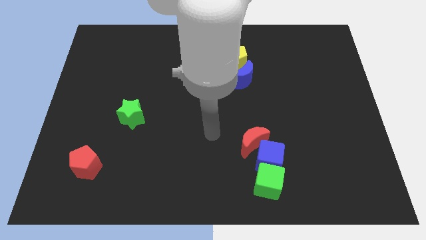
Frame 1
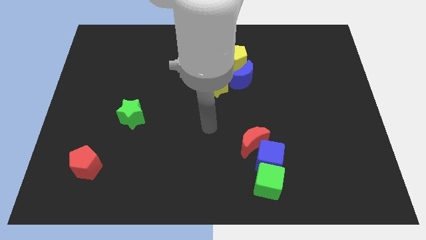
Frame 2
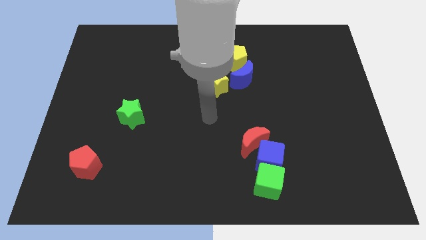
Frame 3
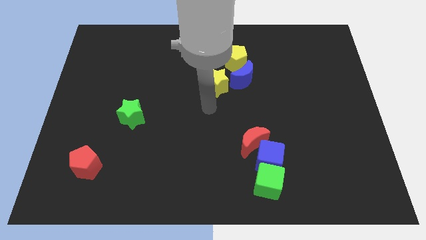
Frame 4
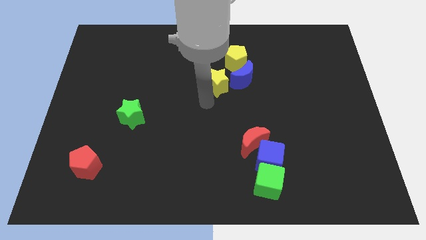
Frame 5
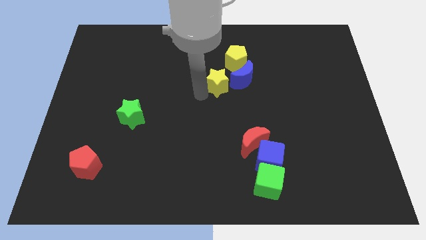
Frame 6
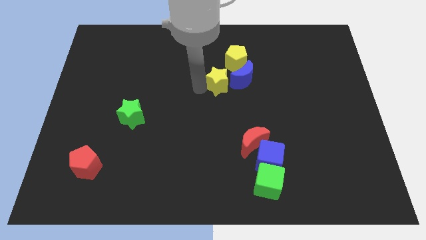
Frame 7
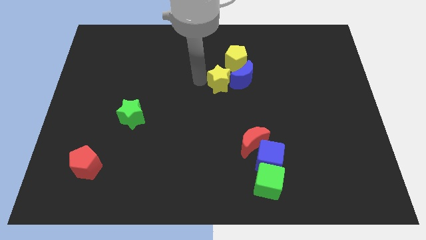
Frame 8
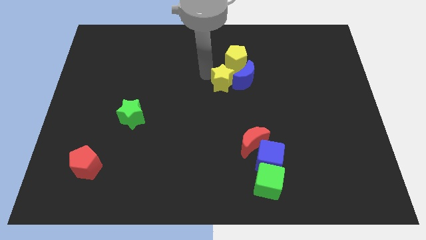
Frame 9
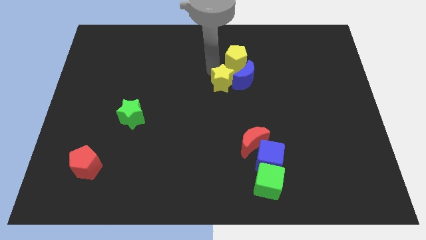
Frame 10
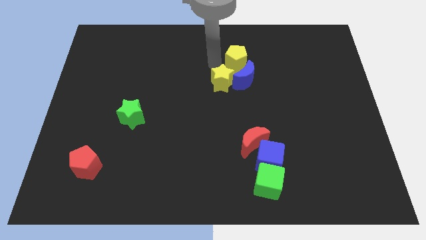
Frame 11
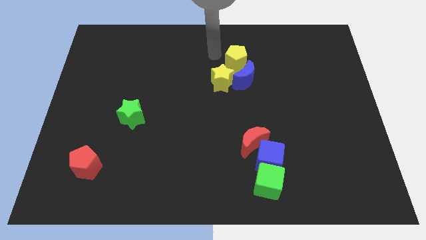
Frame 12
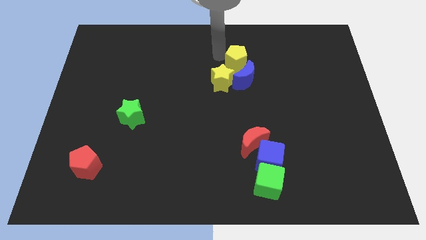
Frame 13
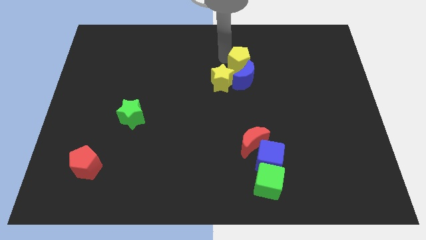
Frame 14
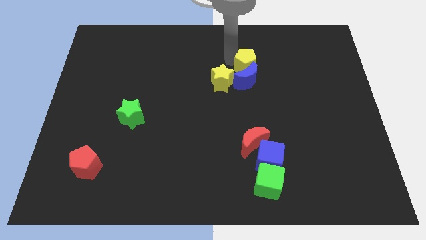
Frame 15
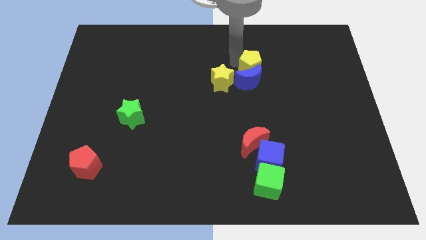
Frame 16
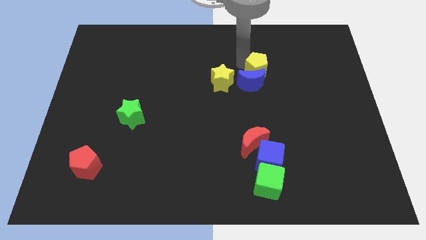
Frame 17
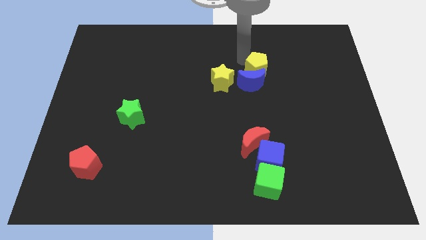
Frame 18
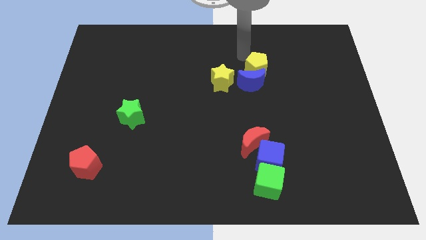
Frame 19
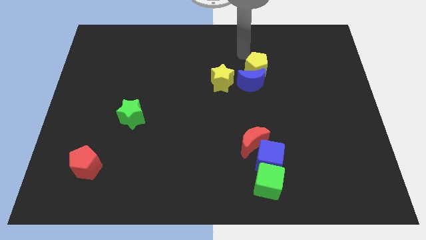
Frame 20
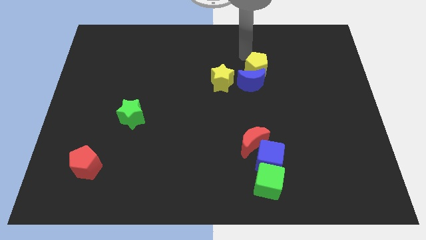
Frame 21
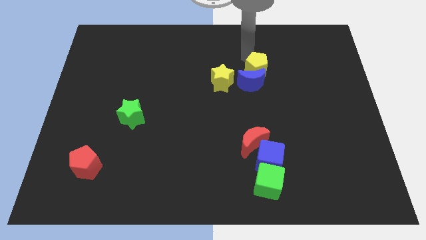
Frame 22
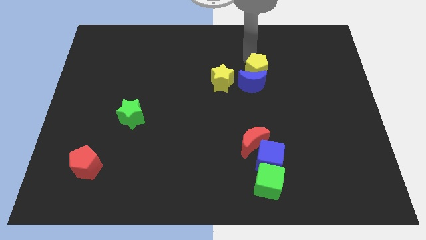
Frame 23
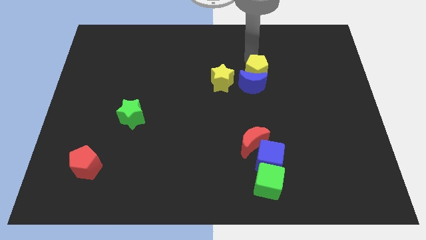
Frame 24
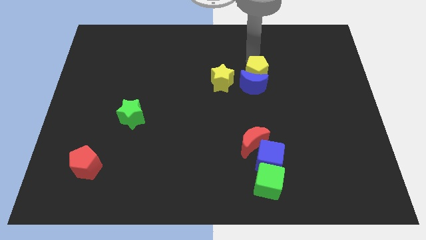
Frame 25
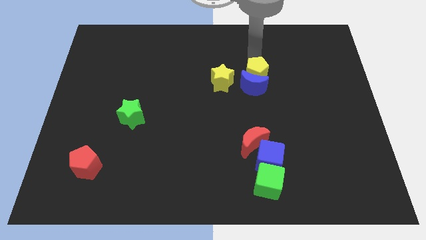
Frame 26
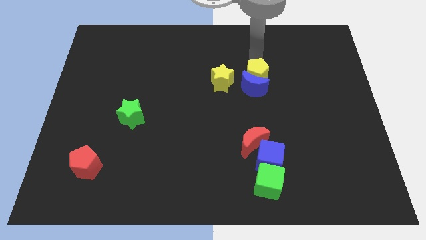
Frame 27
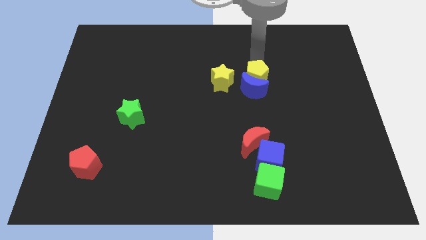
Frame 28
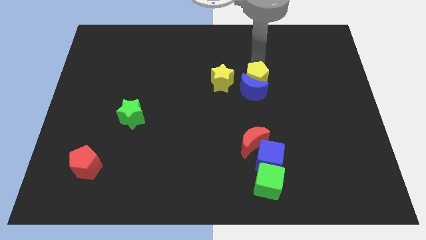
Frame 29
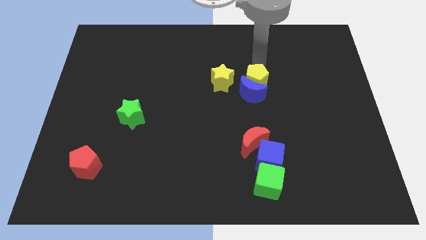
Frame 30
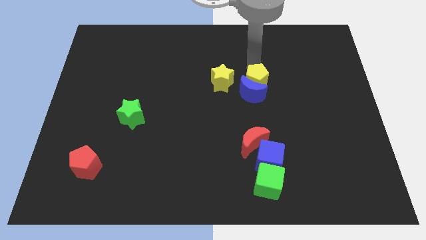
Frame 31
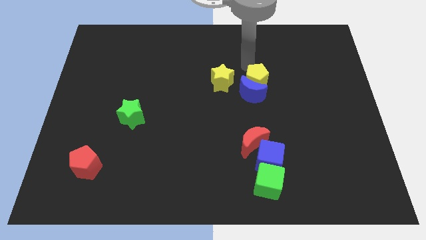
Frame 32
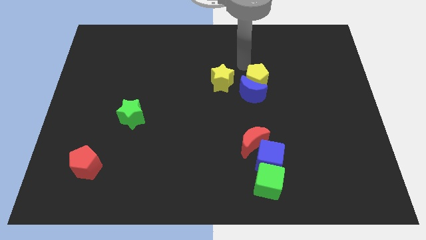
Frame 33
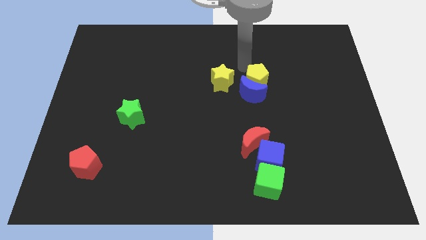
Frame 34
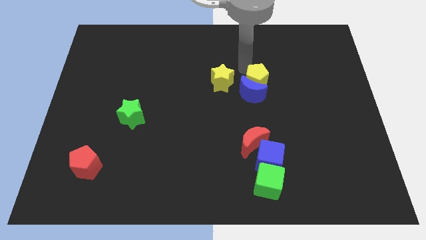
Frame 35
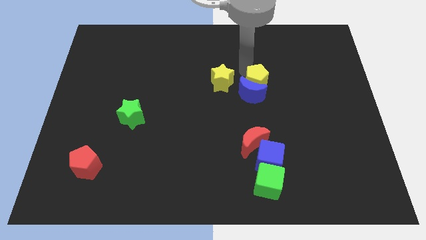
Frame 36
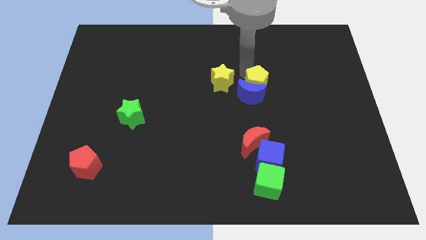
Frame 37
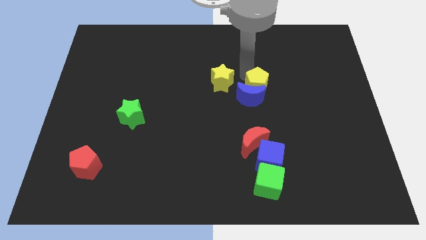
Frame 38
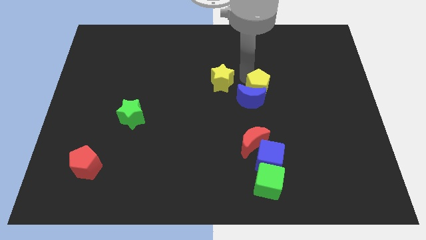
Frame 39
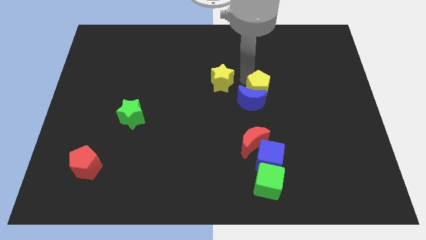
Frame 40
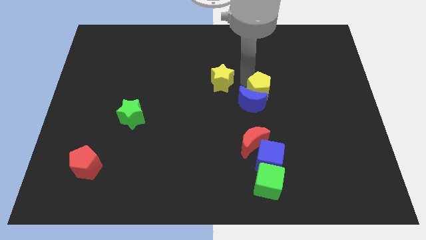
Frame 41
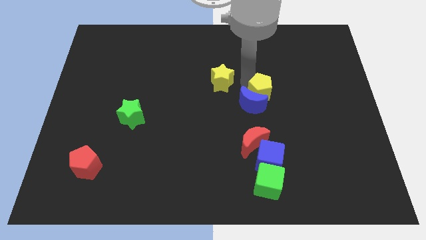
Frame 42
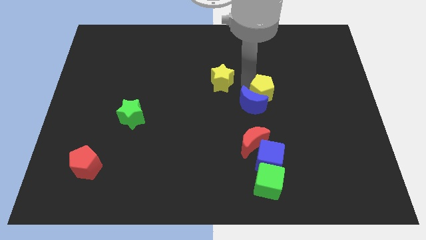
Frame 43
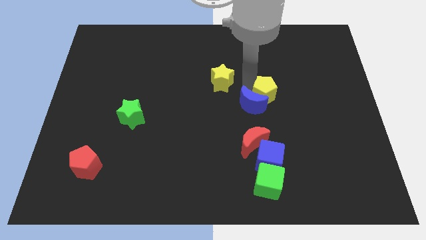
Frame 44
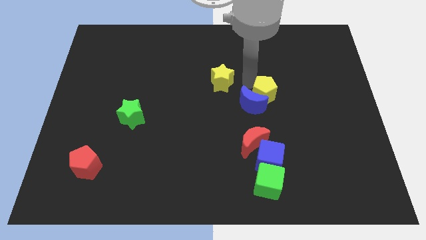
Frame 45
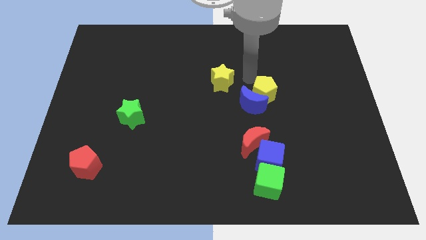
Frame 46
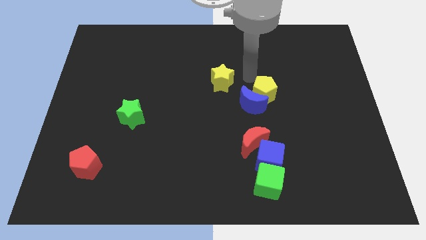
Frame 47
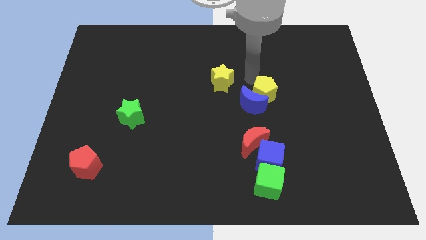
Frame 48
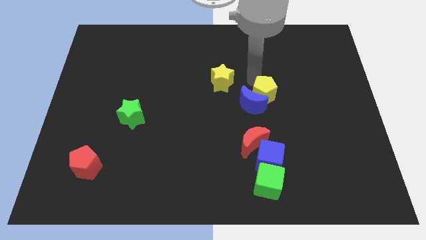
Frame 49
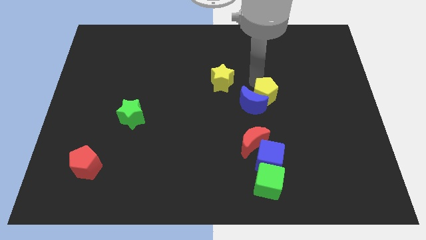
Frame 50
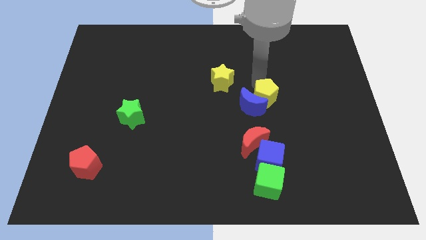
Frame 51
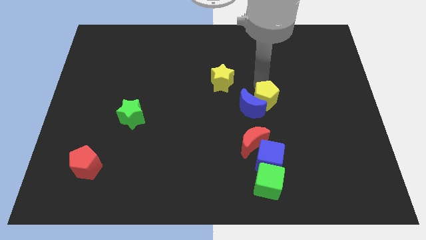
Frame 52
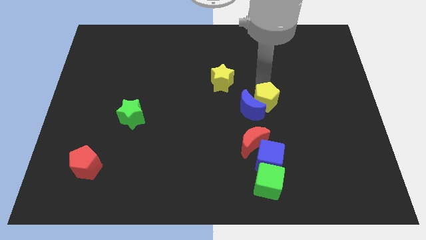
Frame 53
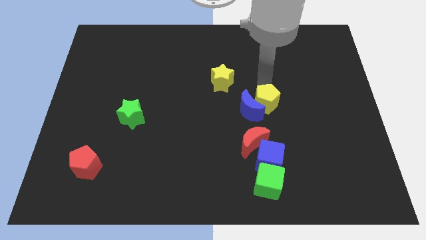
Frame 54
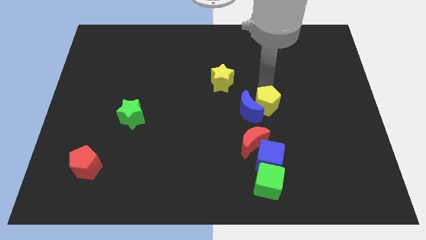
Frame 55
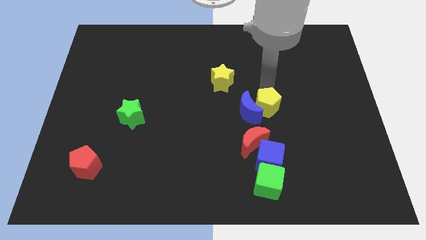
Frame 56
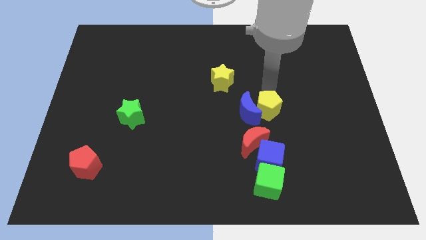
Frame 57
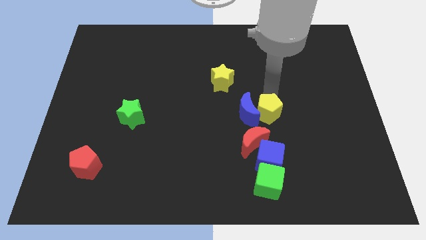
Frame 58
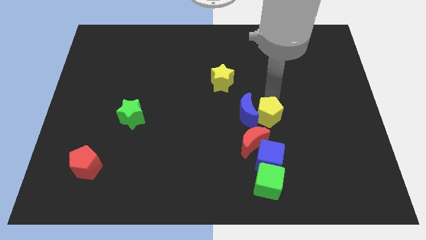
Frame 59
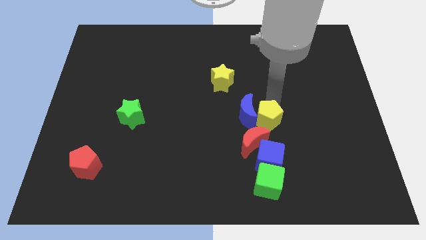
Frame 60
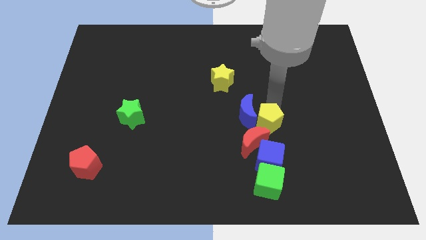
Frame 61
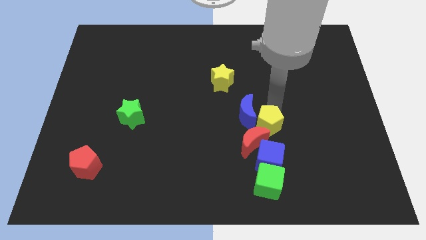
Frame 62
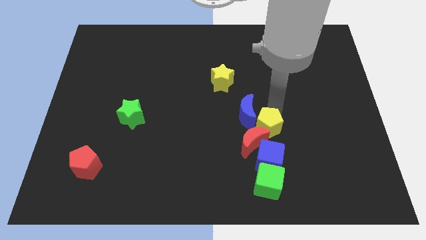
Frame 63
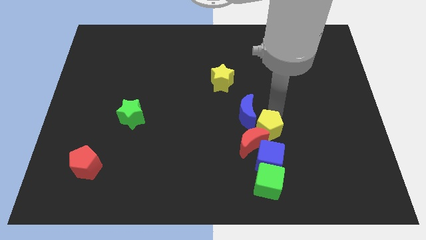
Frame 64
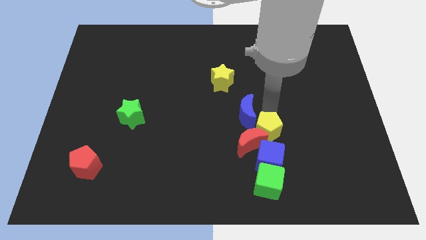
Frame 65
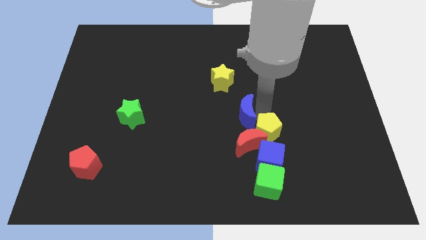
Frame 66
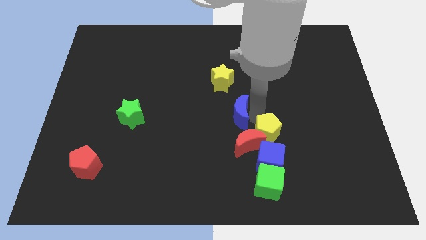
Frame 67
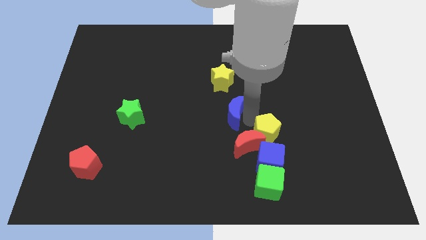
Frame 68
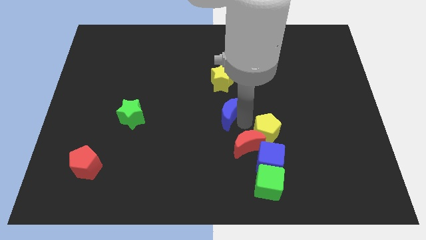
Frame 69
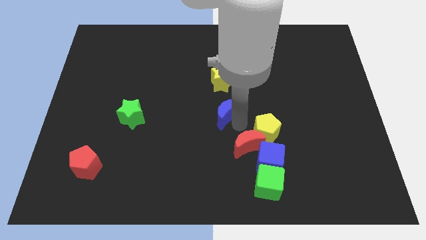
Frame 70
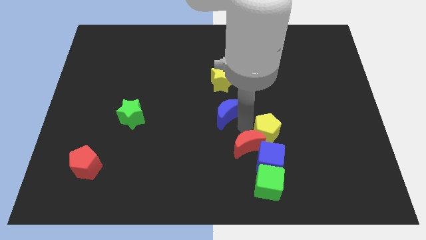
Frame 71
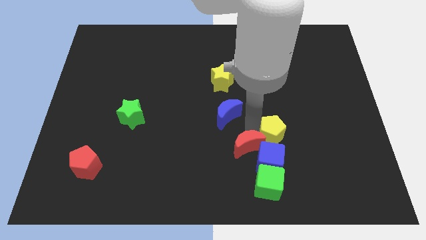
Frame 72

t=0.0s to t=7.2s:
slide the yellow pentagon to the top right side of the blue cube

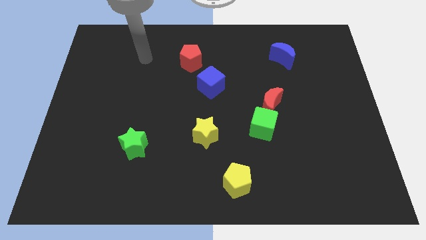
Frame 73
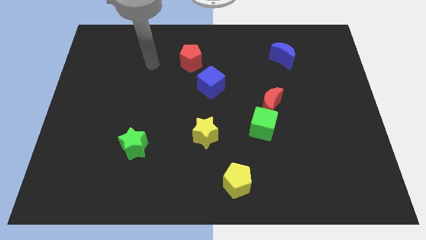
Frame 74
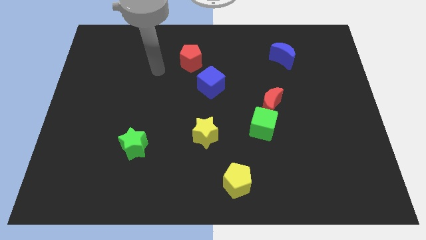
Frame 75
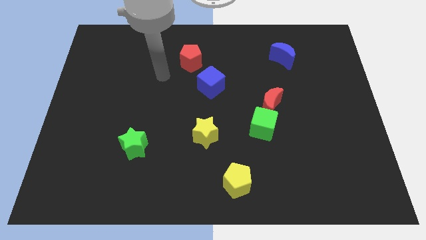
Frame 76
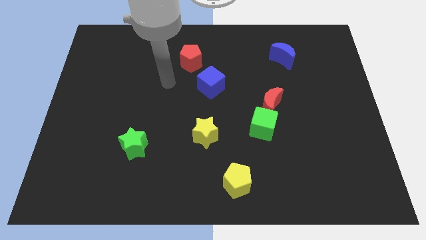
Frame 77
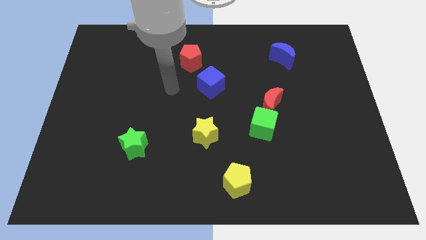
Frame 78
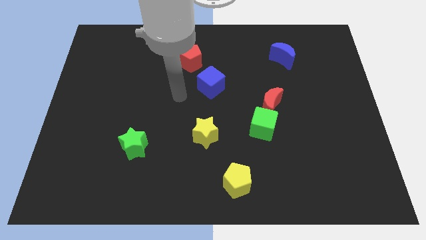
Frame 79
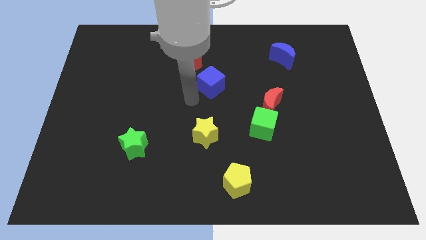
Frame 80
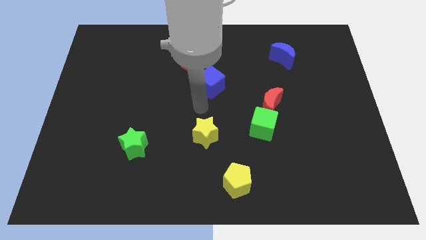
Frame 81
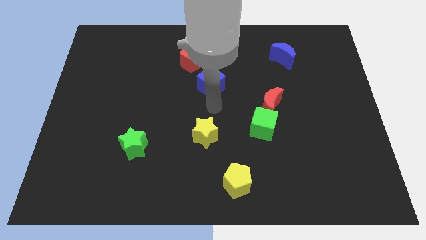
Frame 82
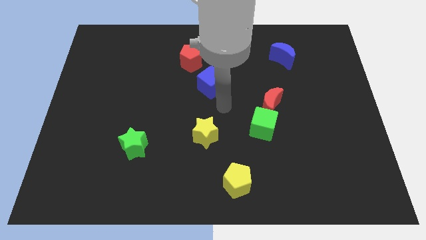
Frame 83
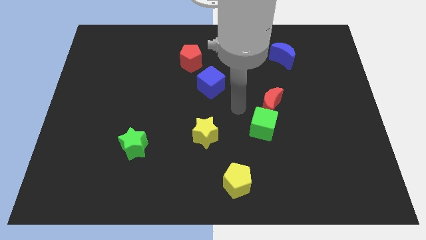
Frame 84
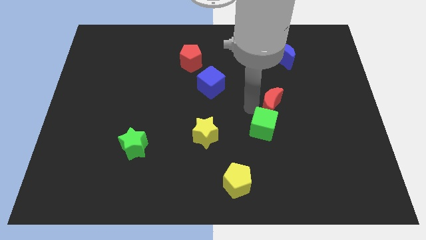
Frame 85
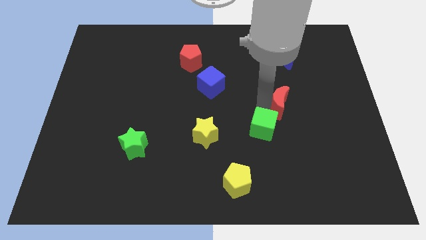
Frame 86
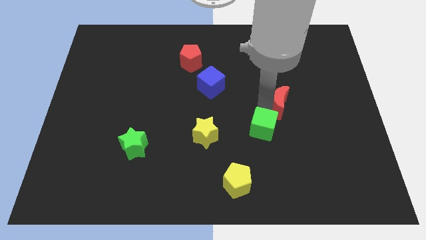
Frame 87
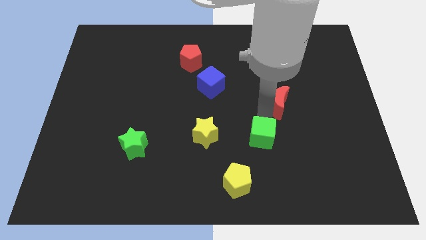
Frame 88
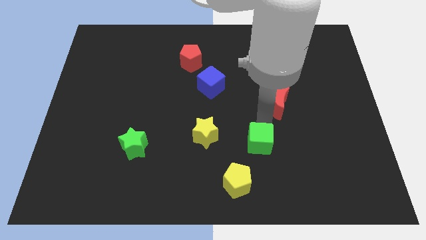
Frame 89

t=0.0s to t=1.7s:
put the green cube diagonally up and to the right of the yellow pentagon
